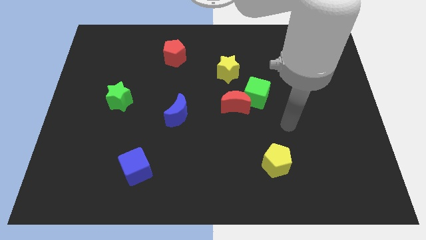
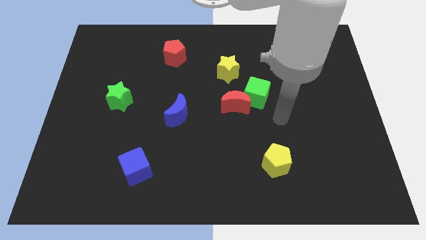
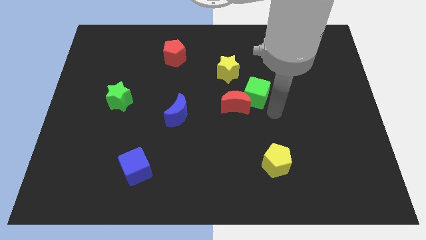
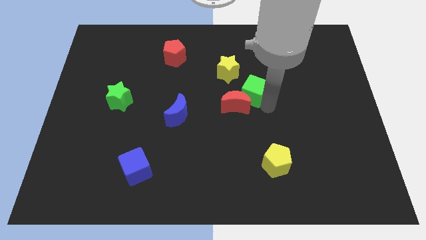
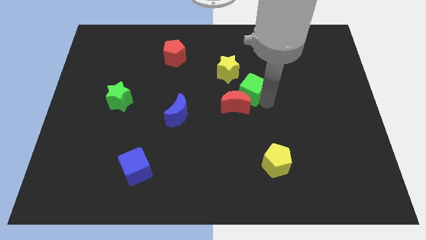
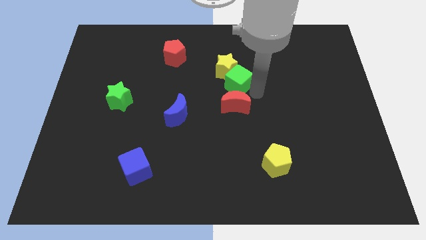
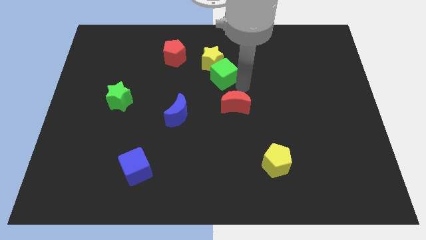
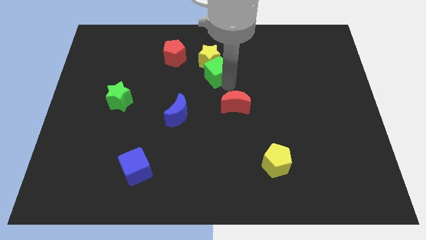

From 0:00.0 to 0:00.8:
separate the red moon from the green cube

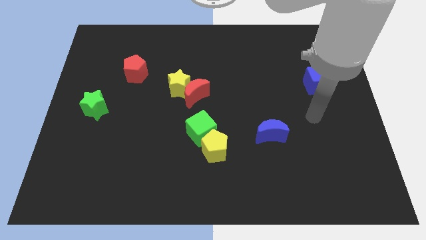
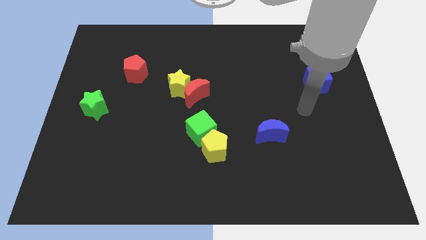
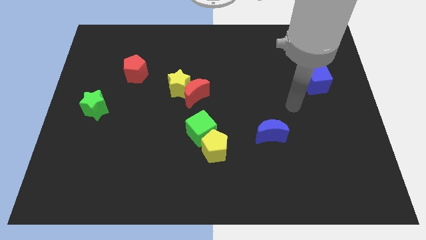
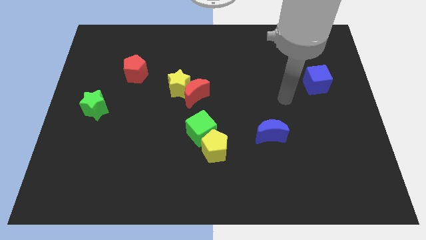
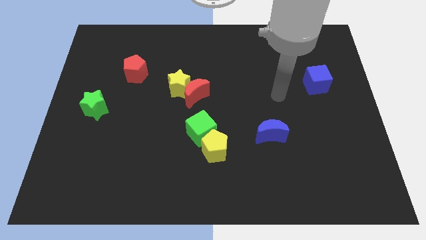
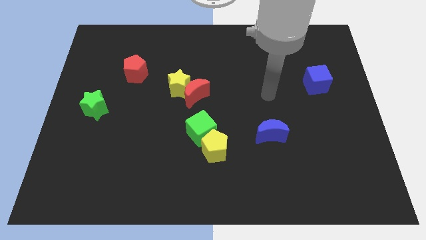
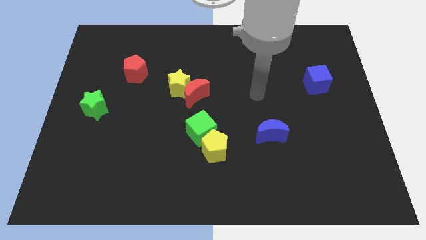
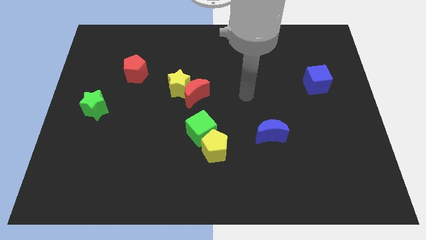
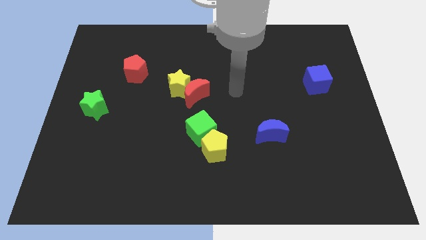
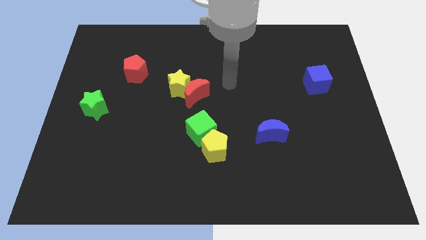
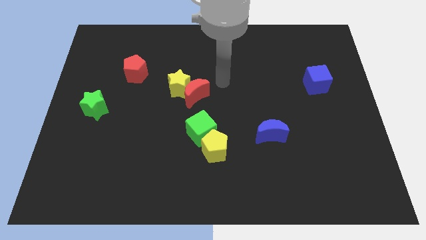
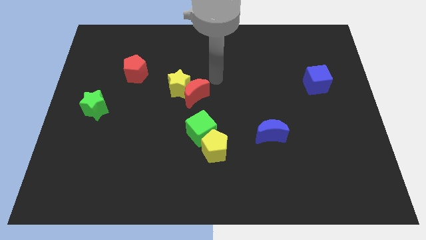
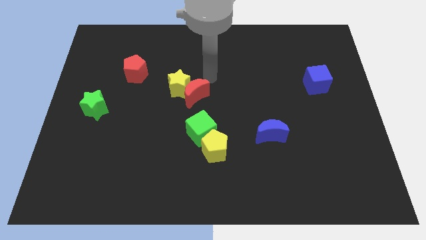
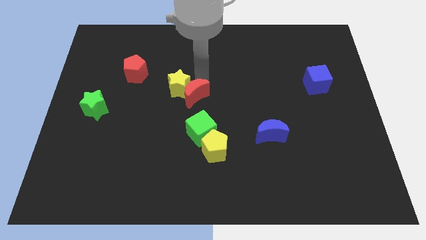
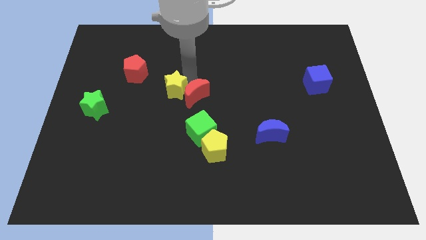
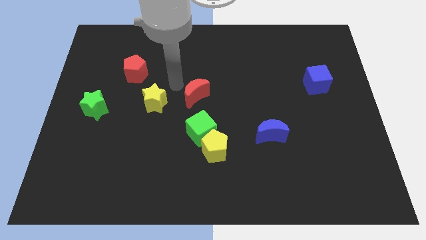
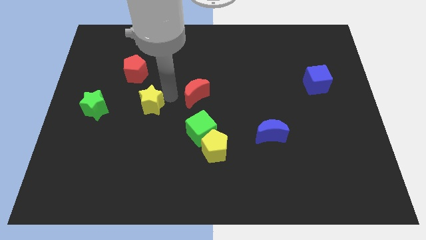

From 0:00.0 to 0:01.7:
move the red moon away from the yellow star

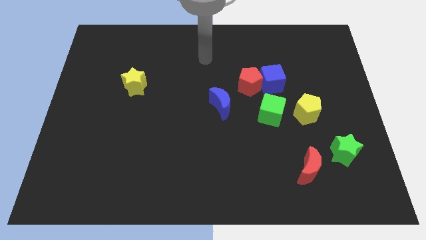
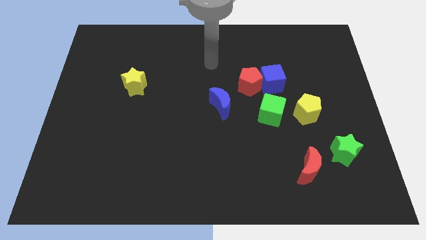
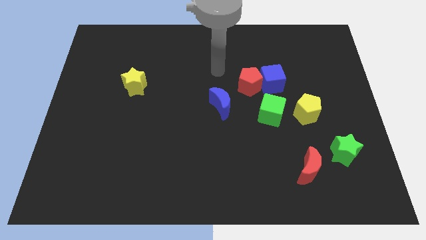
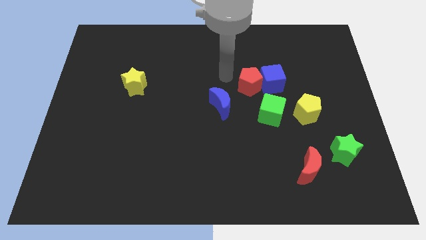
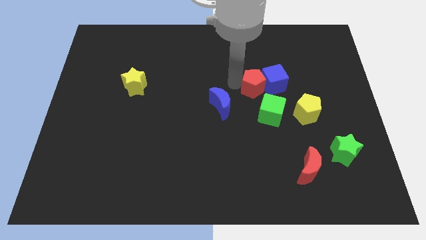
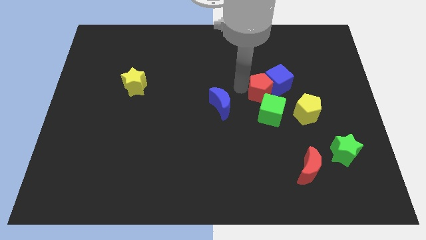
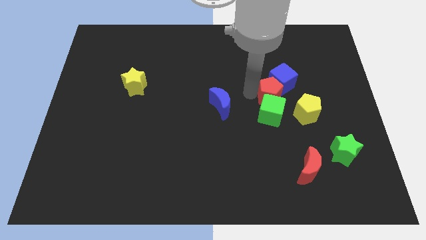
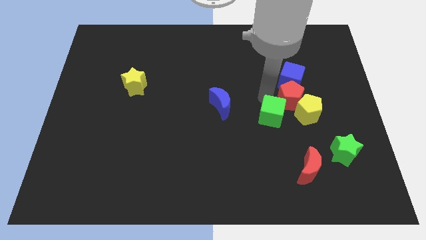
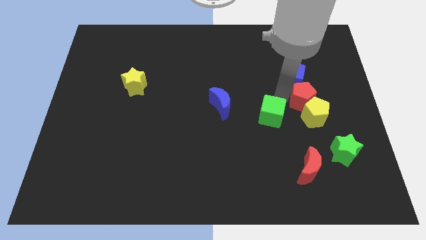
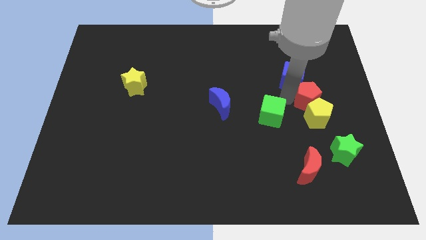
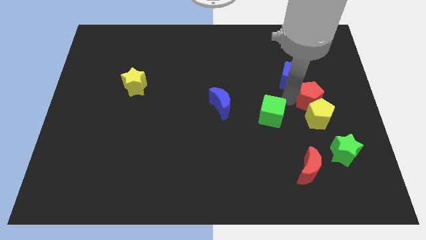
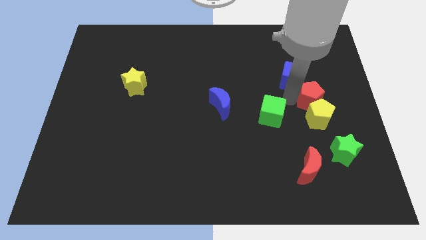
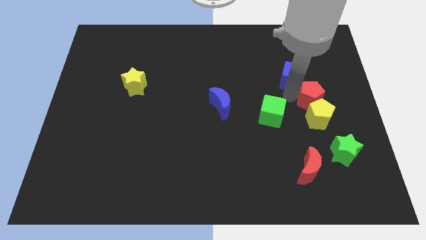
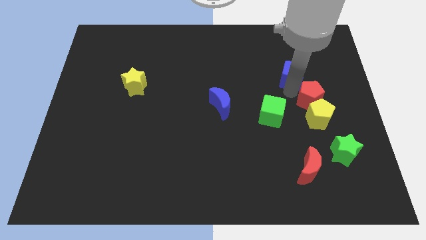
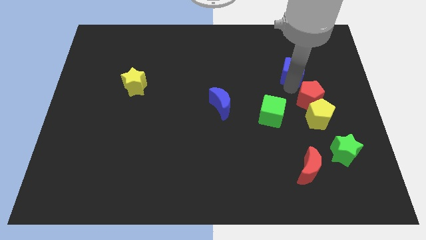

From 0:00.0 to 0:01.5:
move the blue cube away from the red pentagon and green cube

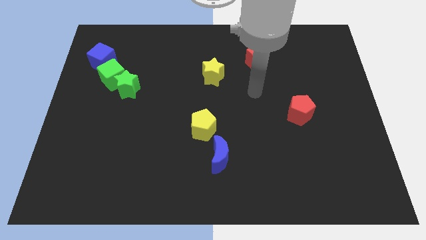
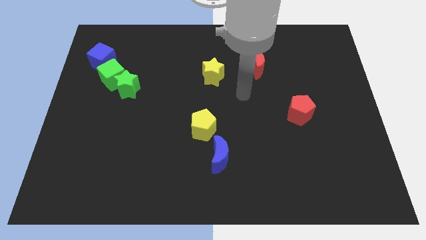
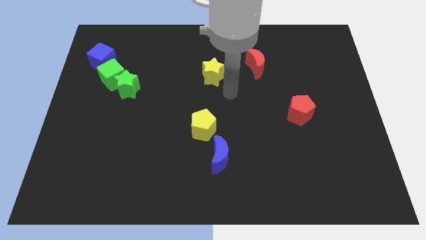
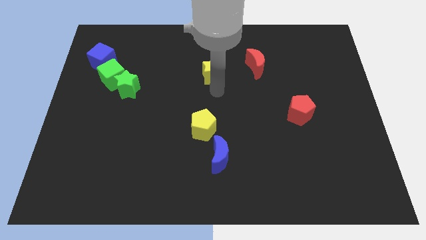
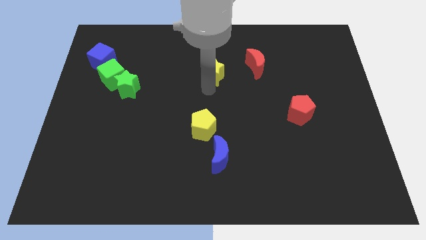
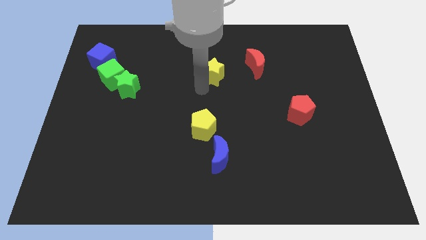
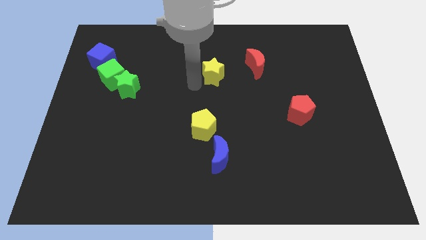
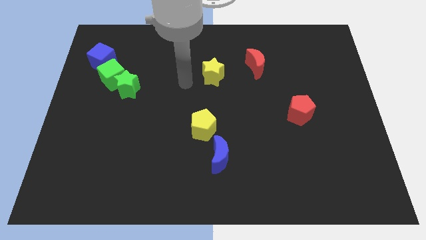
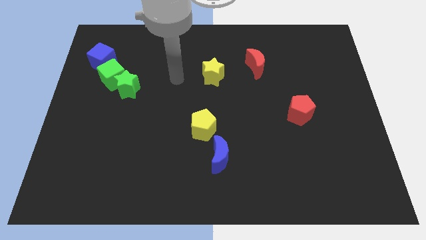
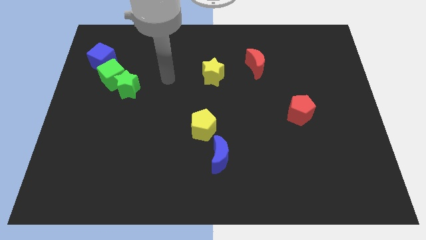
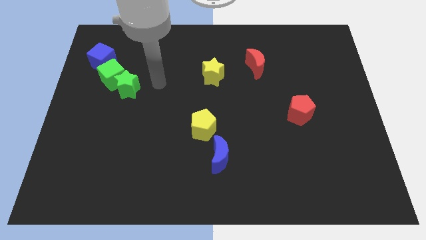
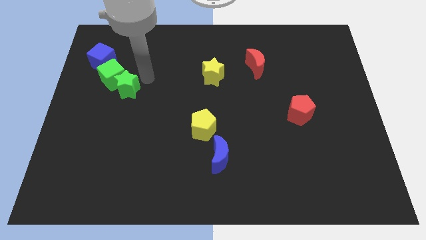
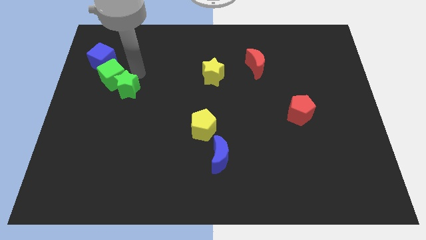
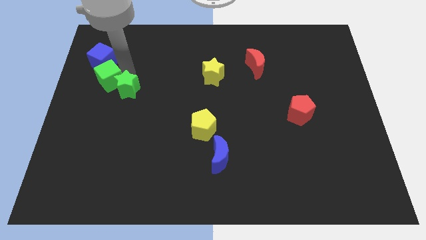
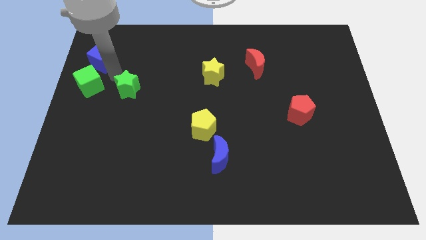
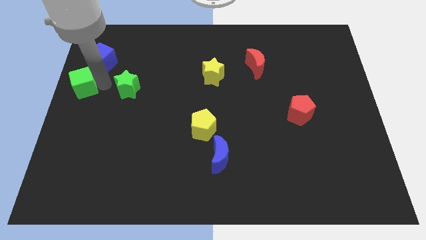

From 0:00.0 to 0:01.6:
separate the green star from the green cube

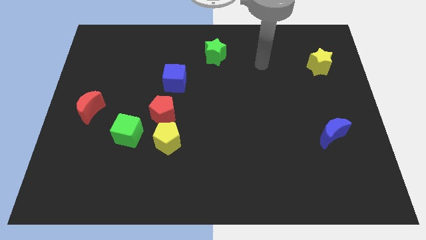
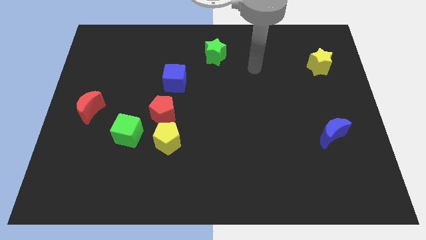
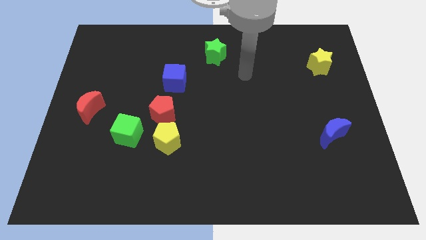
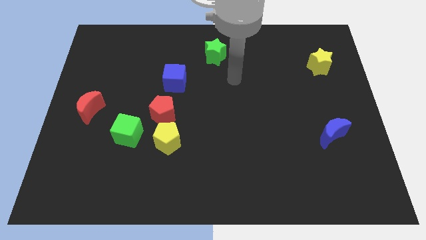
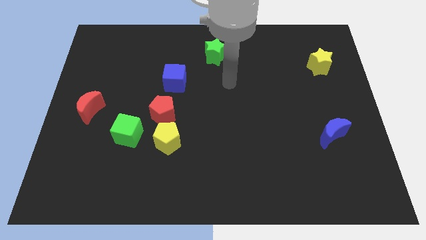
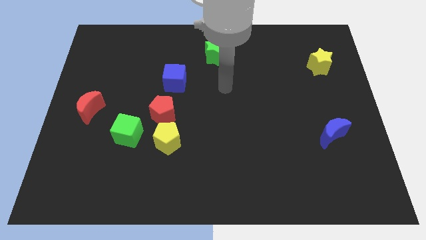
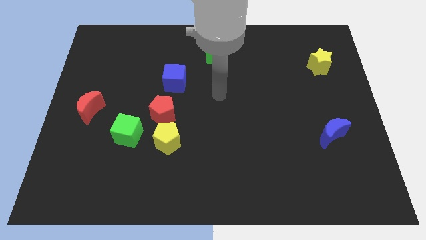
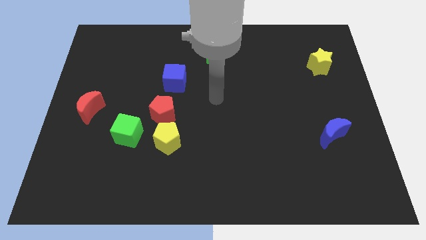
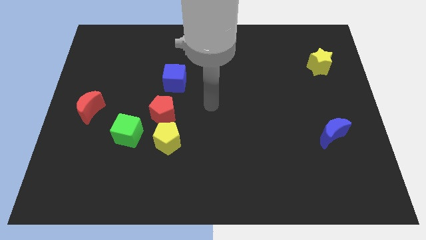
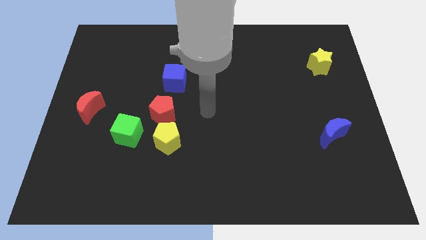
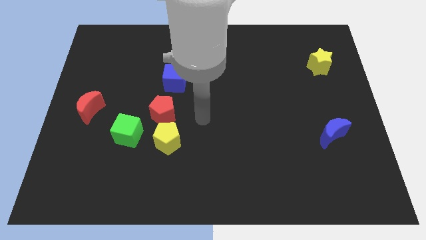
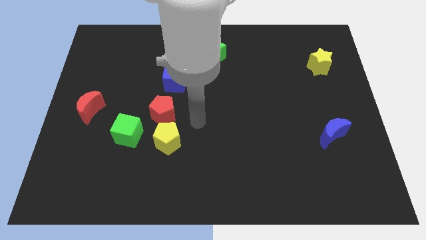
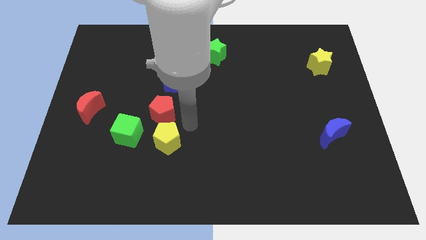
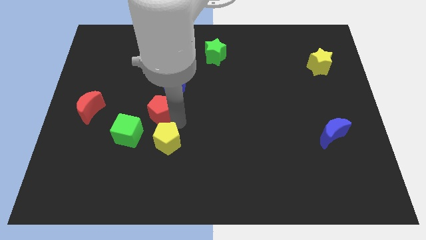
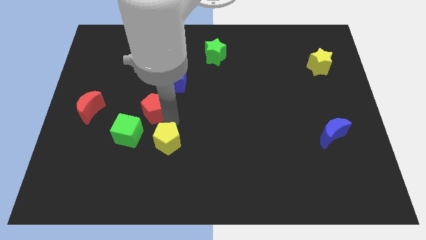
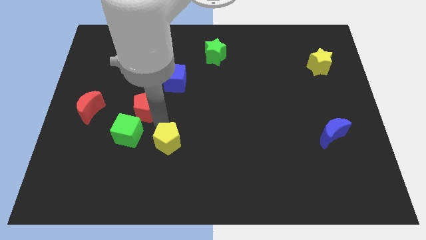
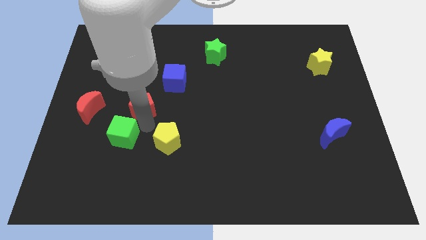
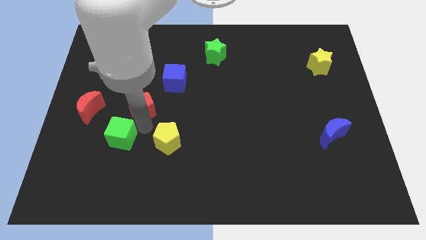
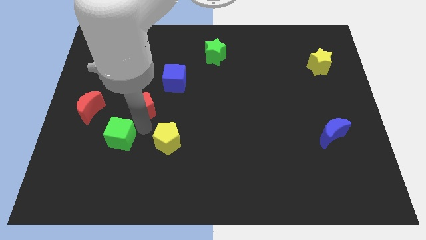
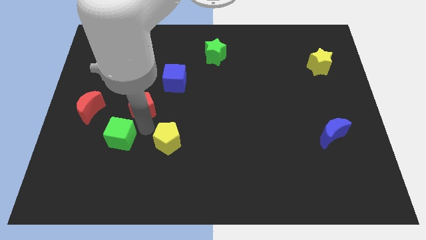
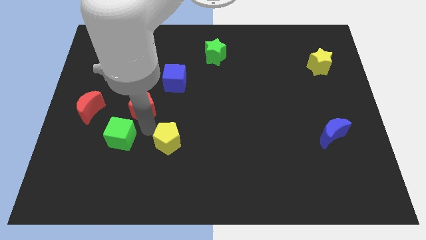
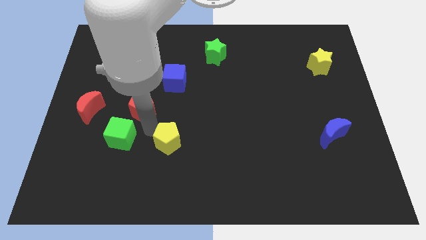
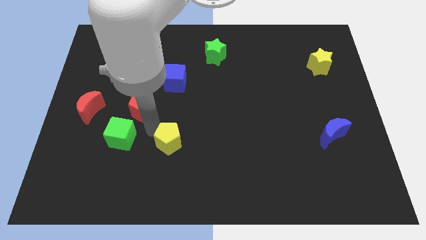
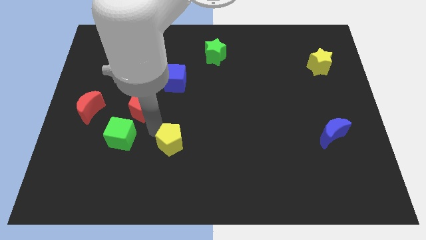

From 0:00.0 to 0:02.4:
separate the yellow pentagon from the red pentagon and green cube

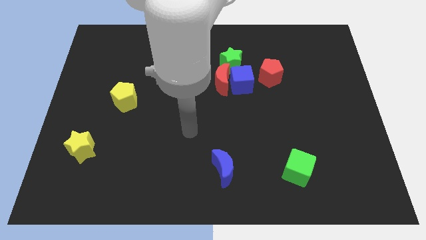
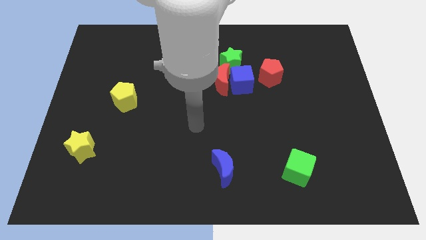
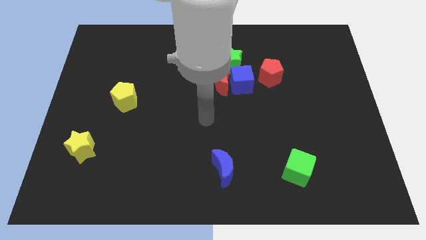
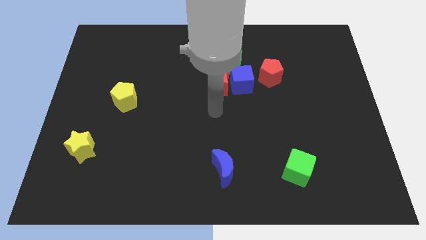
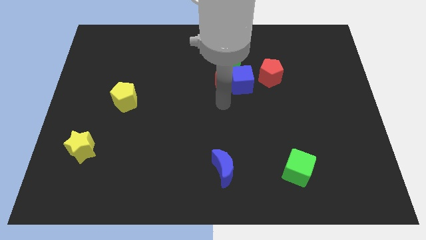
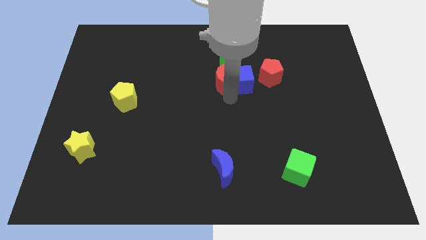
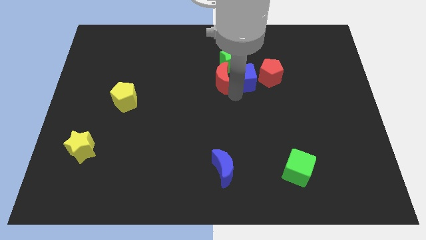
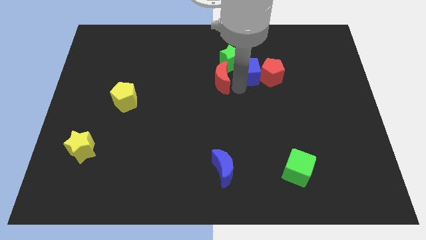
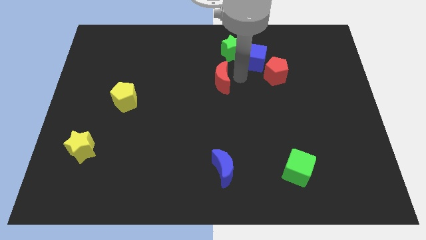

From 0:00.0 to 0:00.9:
separate the red moon from the blue cube and green star

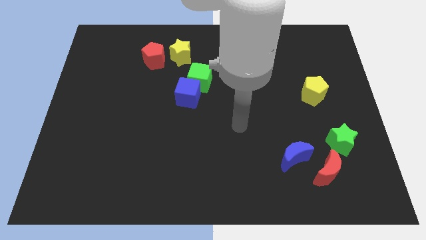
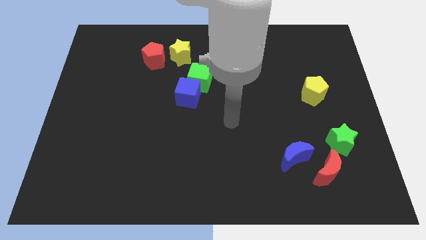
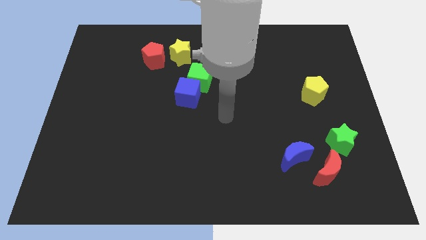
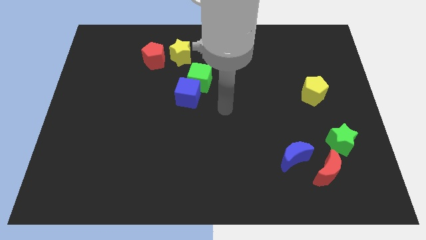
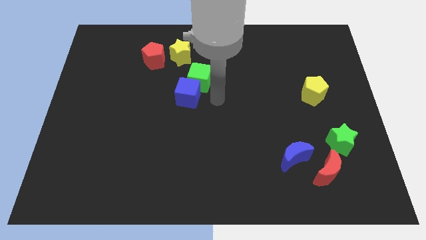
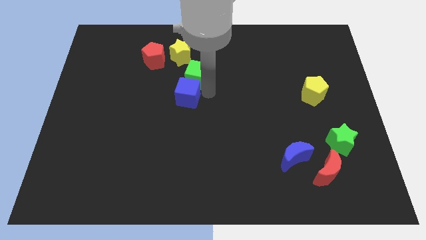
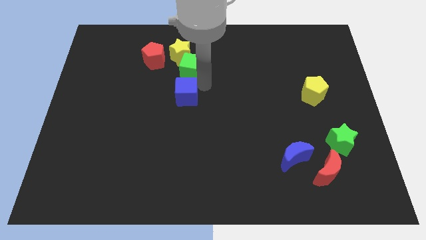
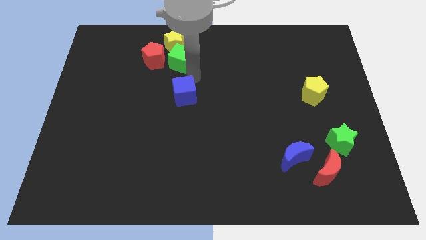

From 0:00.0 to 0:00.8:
move the blue cube away from the green cube
